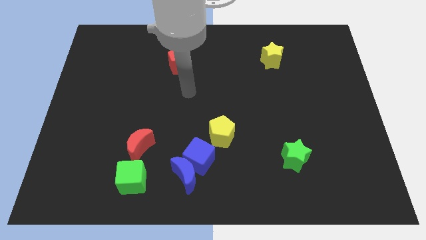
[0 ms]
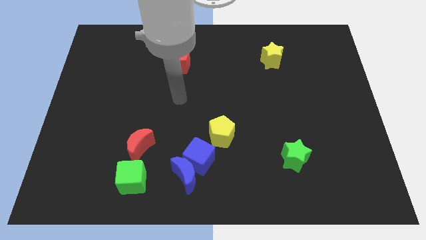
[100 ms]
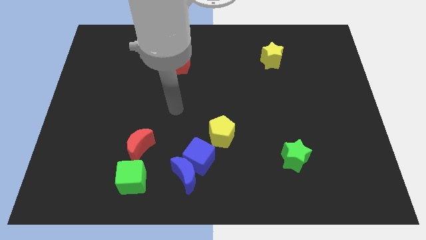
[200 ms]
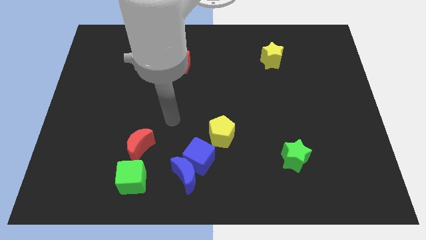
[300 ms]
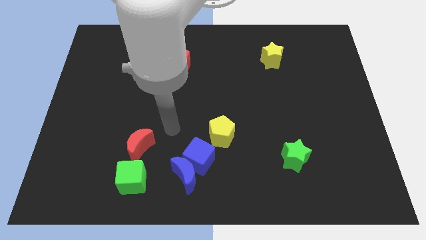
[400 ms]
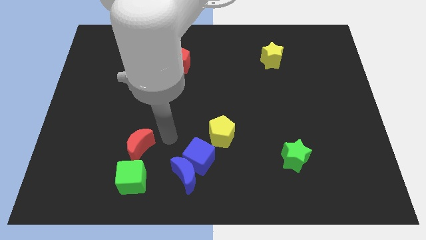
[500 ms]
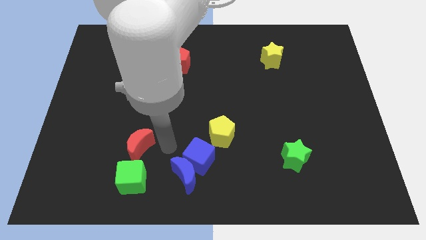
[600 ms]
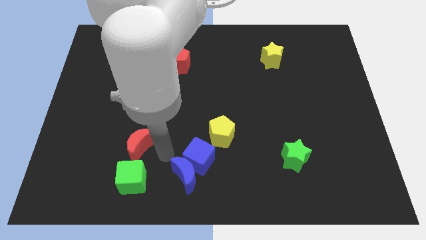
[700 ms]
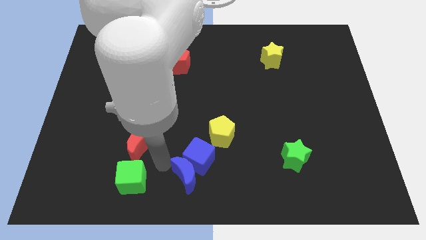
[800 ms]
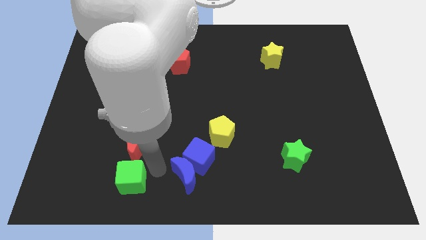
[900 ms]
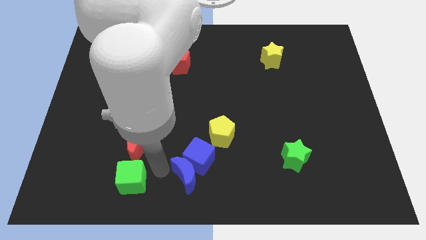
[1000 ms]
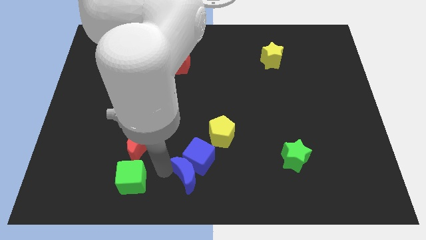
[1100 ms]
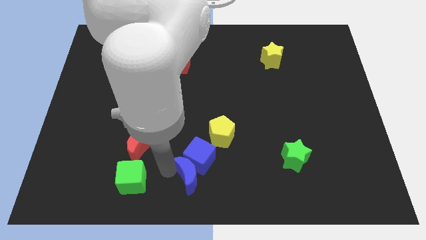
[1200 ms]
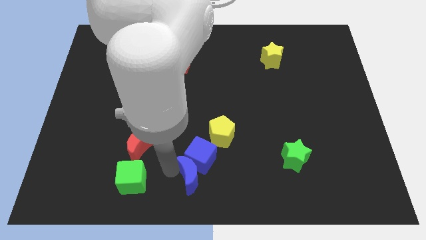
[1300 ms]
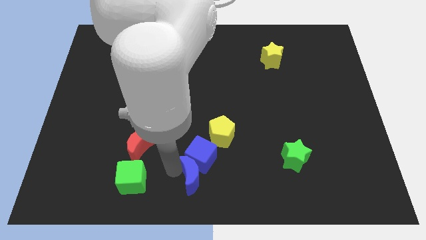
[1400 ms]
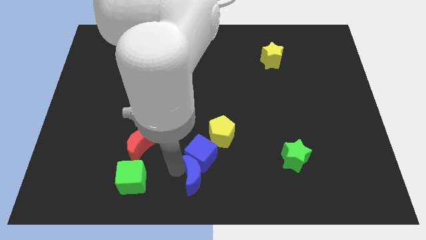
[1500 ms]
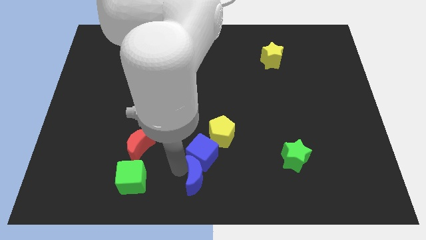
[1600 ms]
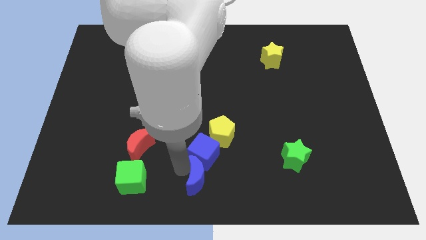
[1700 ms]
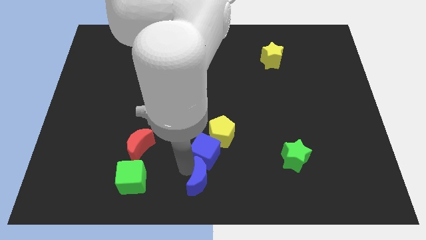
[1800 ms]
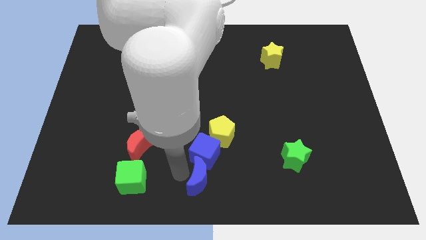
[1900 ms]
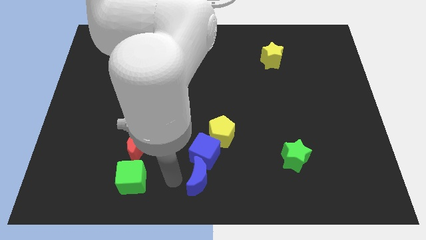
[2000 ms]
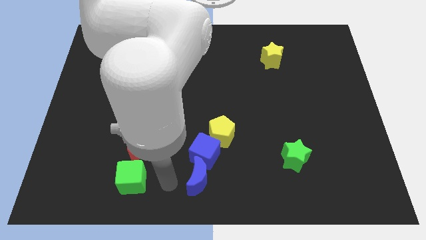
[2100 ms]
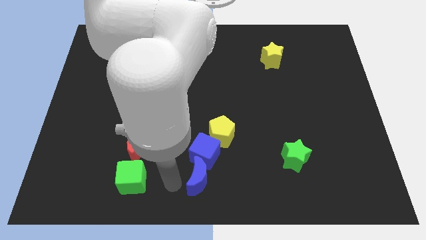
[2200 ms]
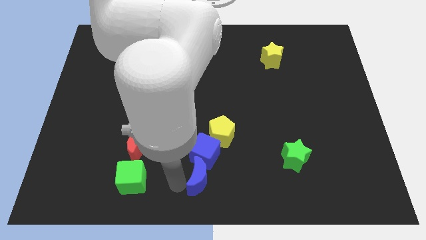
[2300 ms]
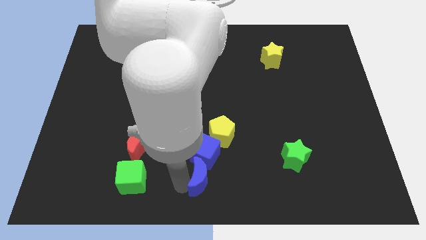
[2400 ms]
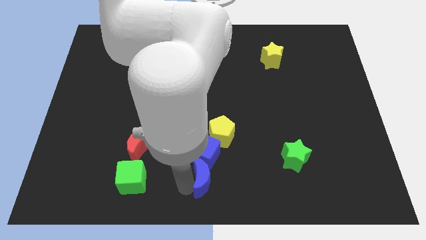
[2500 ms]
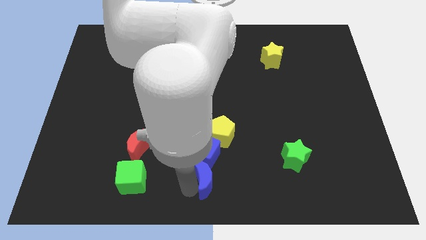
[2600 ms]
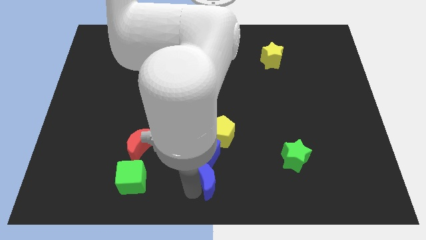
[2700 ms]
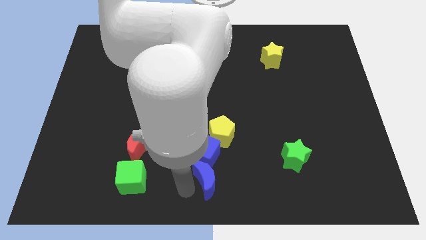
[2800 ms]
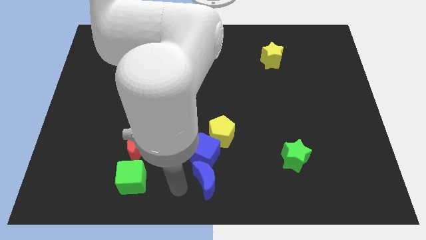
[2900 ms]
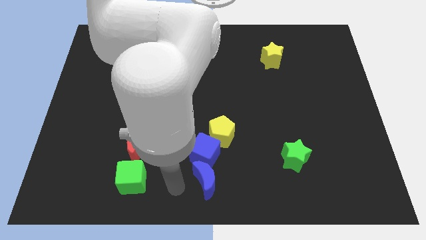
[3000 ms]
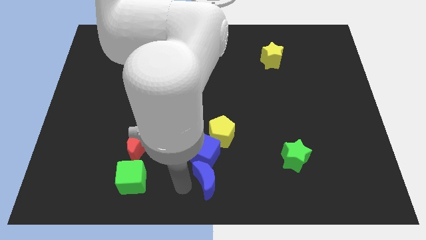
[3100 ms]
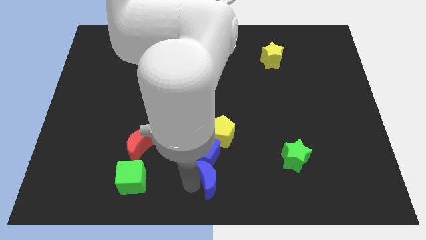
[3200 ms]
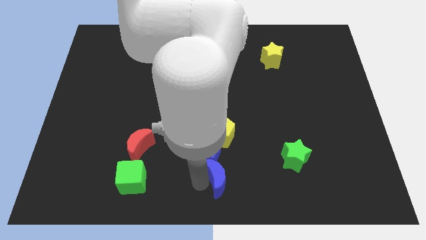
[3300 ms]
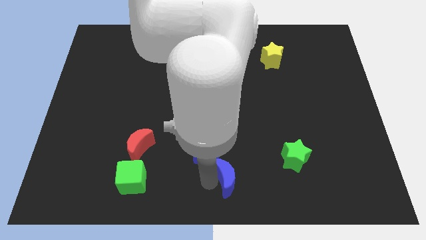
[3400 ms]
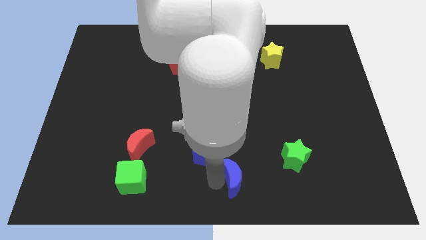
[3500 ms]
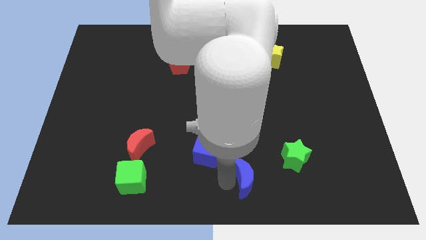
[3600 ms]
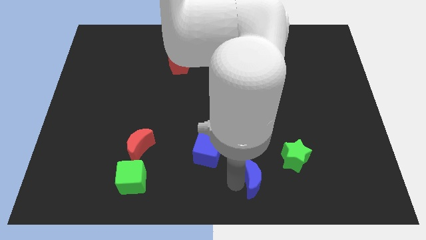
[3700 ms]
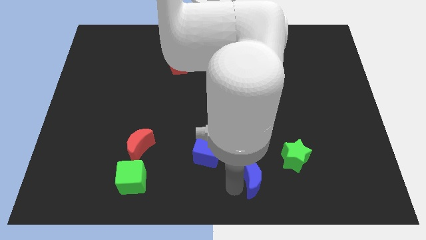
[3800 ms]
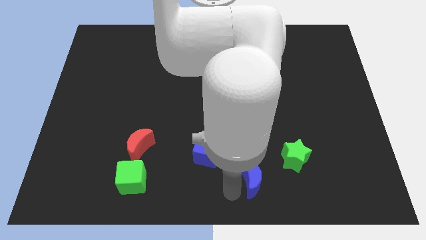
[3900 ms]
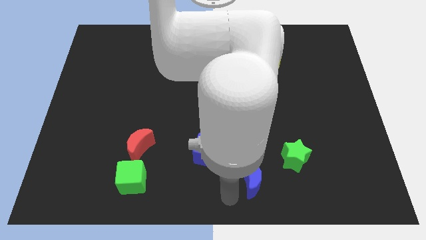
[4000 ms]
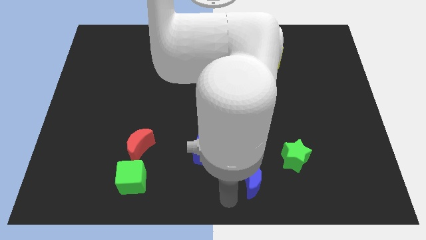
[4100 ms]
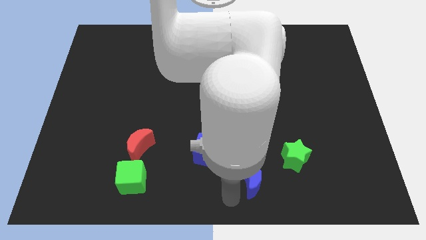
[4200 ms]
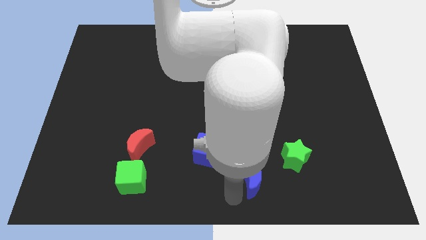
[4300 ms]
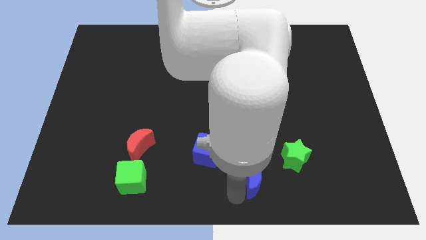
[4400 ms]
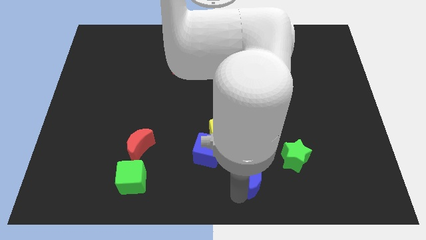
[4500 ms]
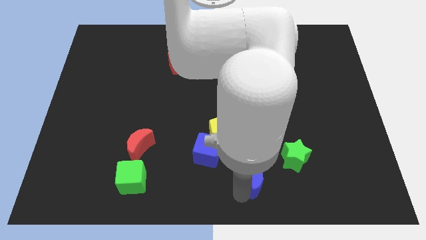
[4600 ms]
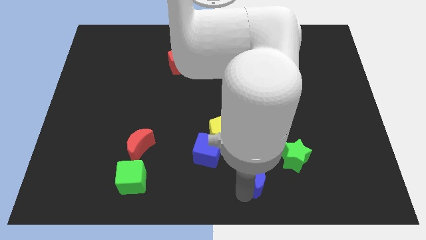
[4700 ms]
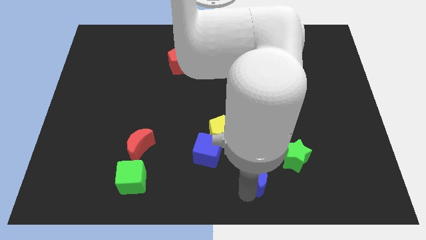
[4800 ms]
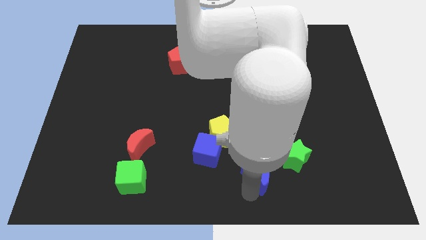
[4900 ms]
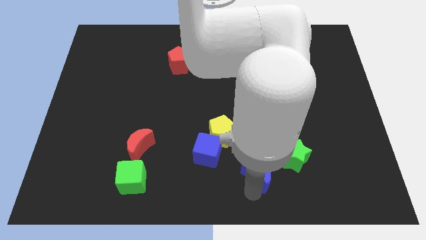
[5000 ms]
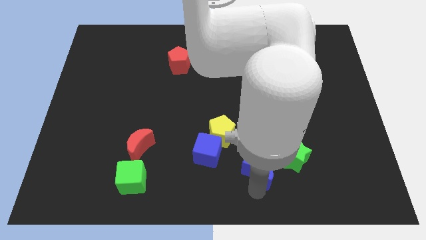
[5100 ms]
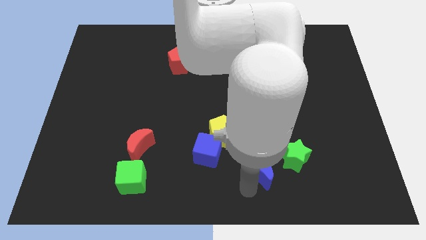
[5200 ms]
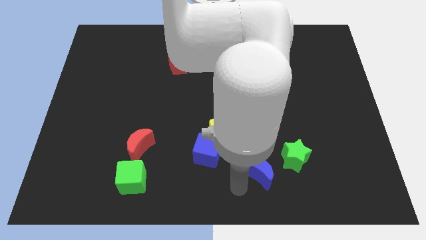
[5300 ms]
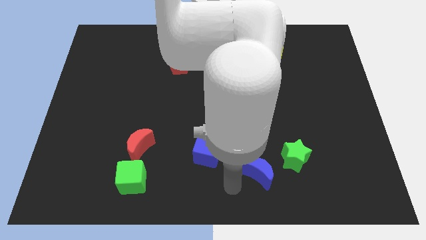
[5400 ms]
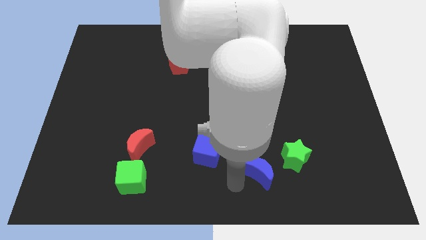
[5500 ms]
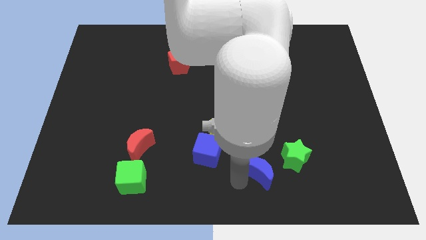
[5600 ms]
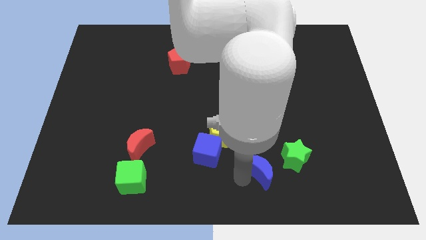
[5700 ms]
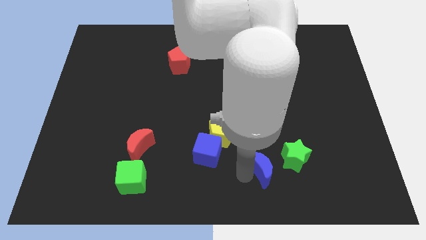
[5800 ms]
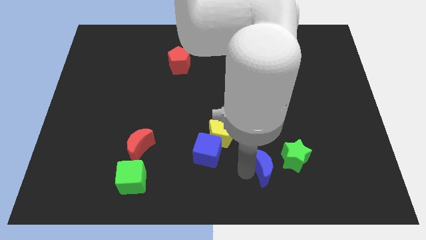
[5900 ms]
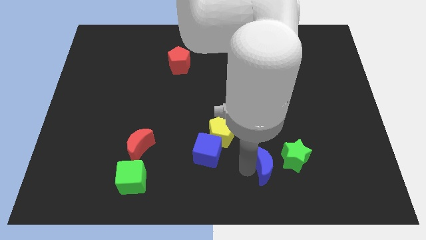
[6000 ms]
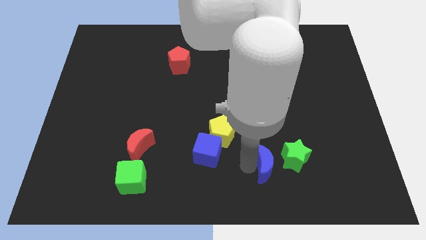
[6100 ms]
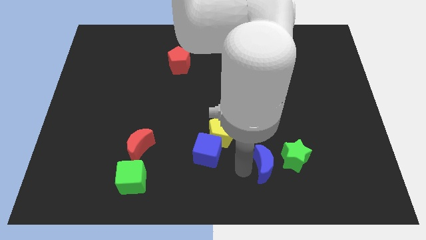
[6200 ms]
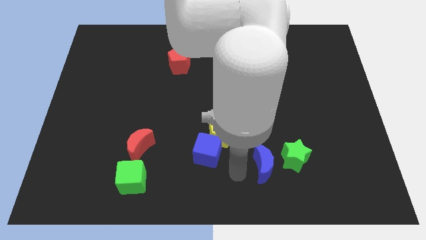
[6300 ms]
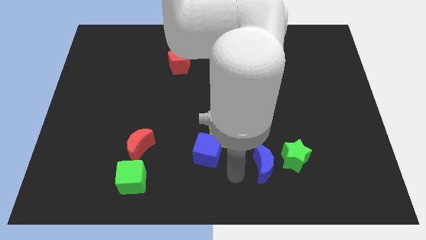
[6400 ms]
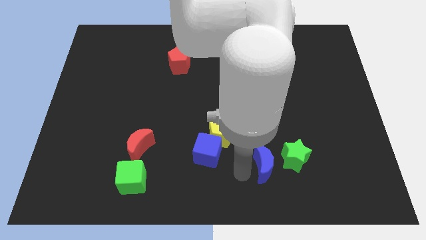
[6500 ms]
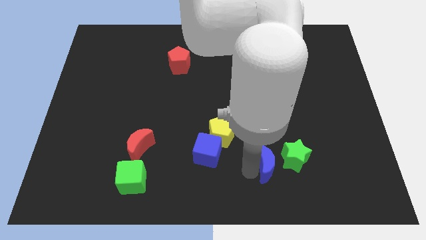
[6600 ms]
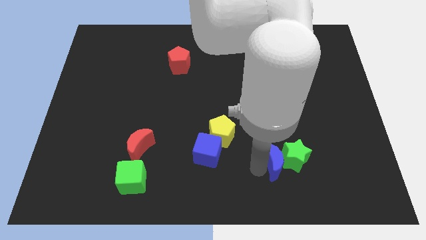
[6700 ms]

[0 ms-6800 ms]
slide the blue moon to the green star
